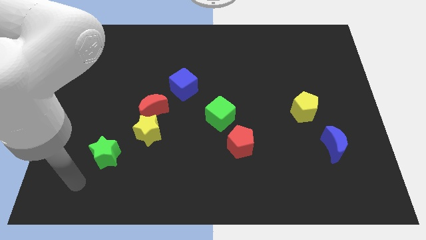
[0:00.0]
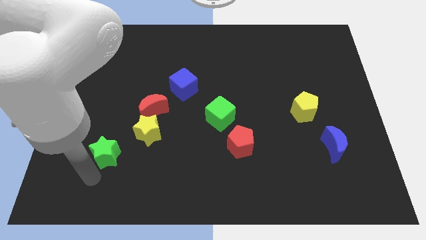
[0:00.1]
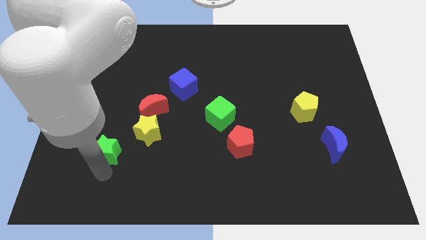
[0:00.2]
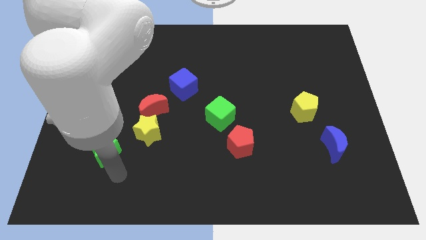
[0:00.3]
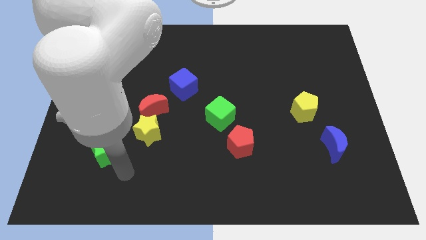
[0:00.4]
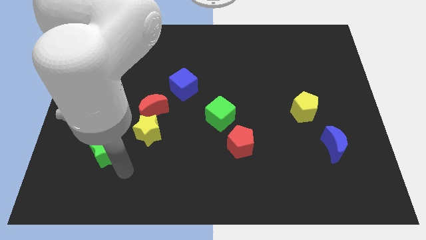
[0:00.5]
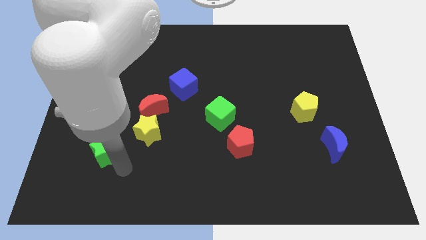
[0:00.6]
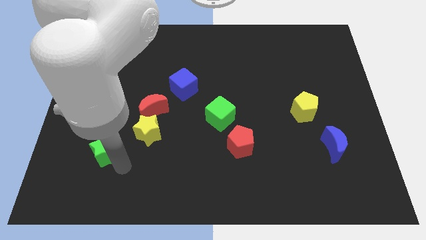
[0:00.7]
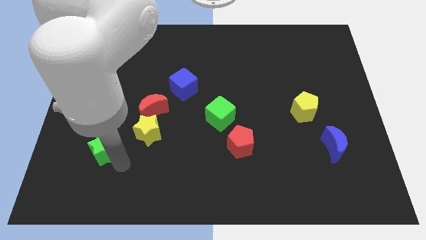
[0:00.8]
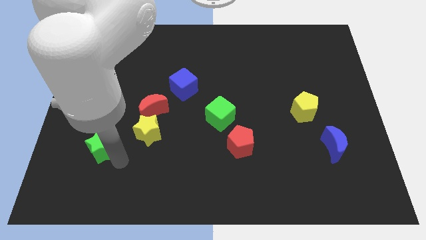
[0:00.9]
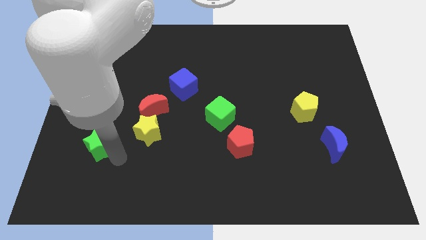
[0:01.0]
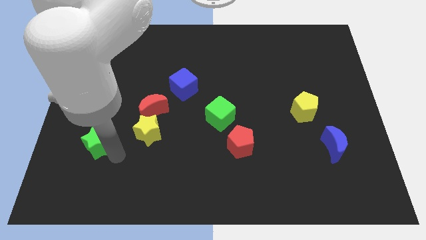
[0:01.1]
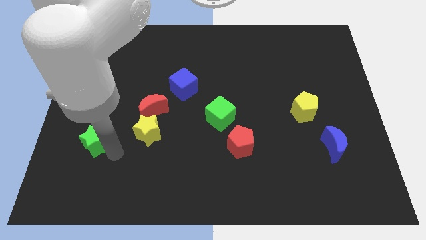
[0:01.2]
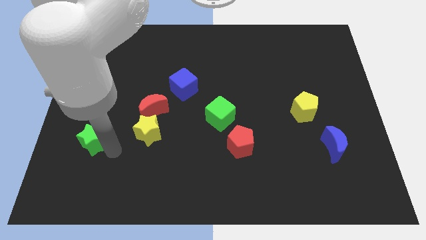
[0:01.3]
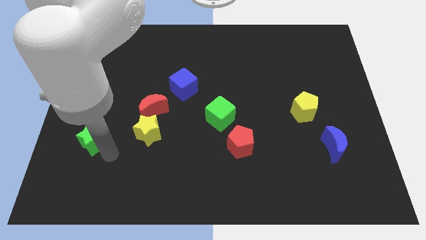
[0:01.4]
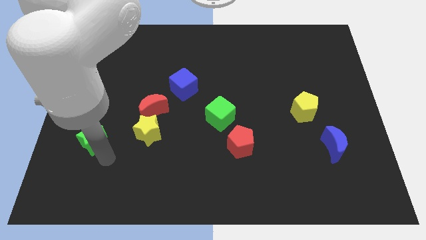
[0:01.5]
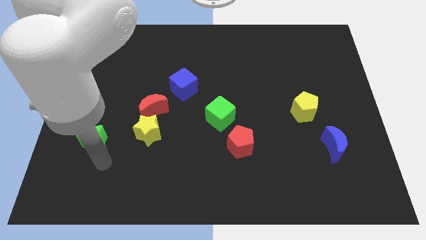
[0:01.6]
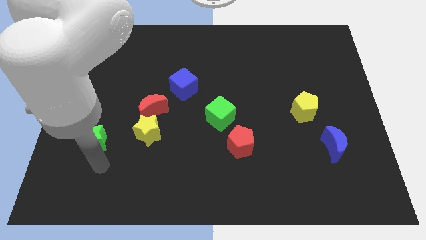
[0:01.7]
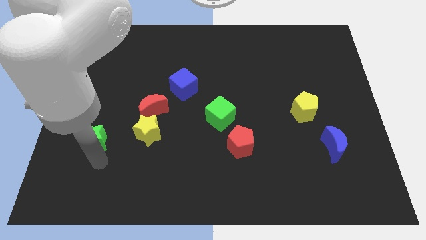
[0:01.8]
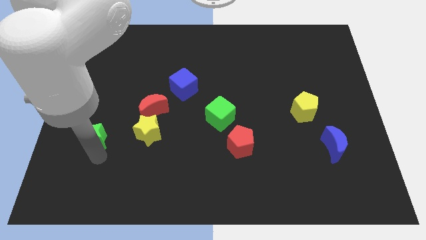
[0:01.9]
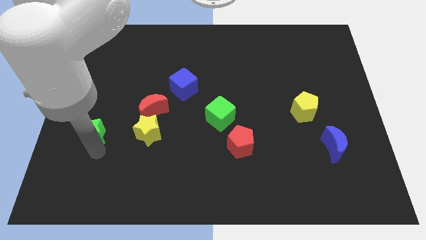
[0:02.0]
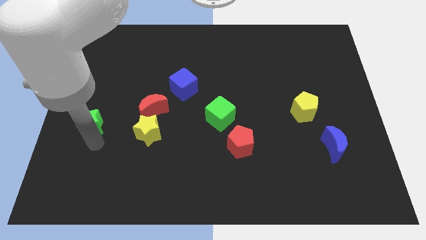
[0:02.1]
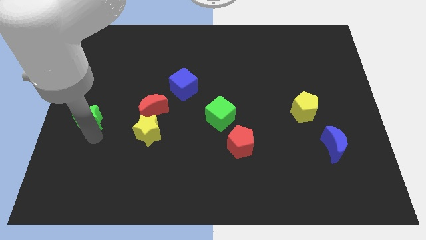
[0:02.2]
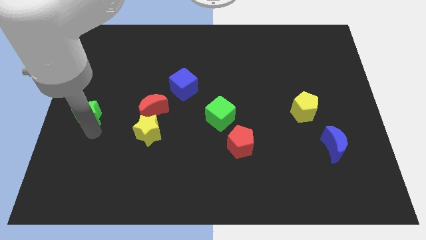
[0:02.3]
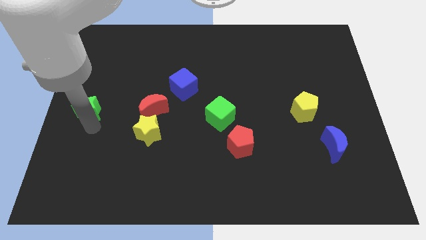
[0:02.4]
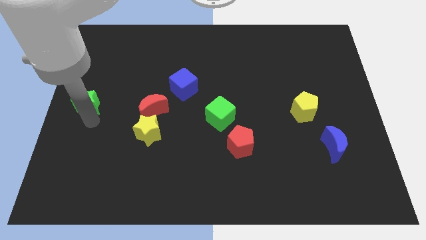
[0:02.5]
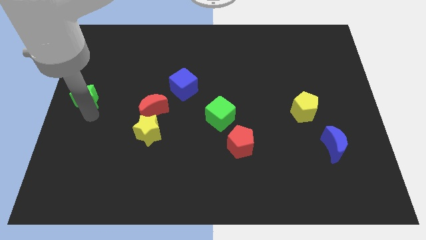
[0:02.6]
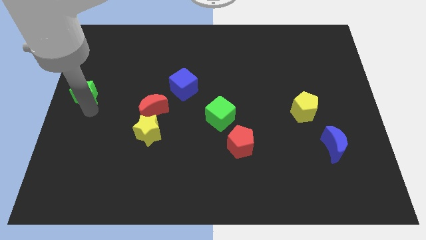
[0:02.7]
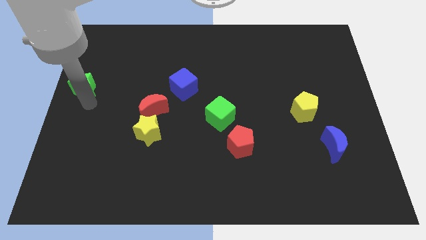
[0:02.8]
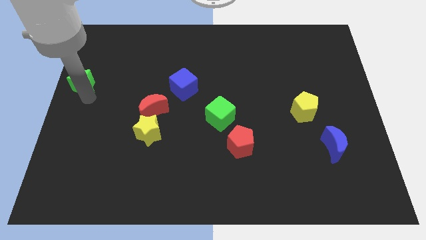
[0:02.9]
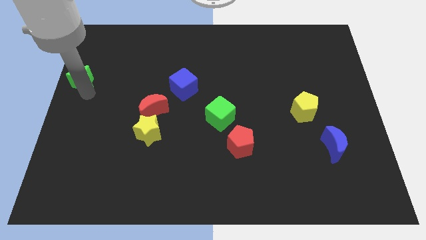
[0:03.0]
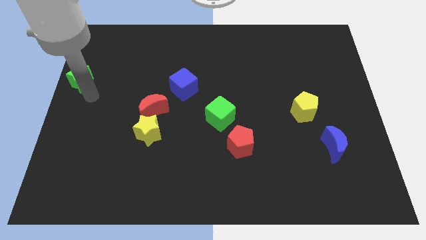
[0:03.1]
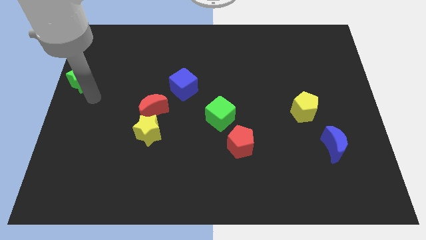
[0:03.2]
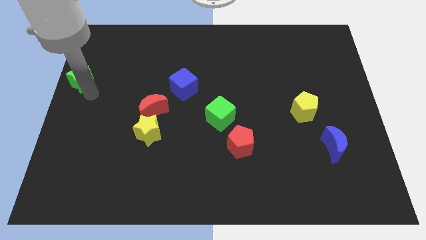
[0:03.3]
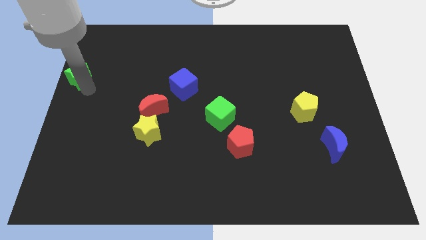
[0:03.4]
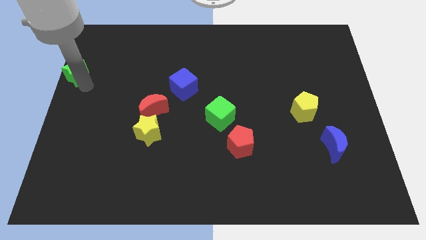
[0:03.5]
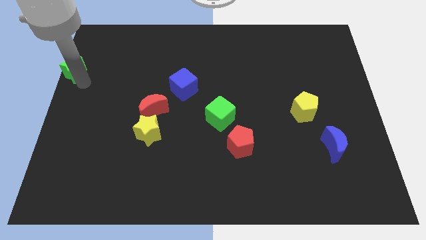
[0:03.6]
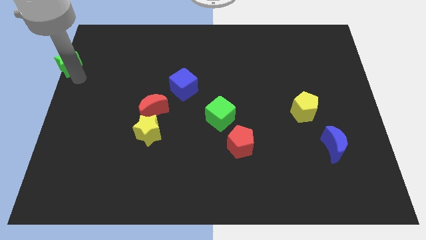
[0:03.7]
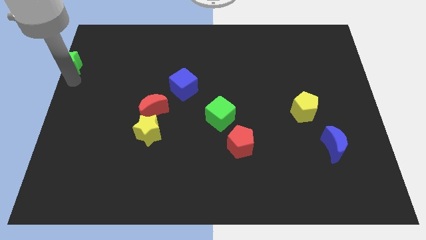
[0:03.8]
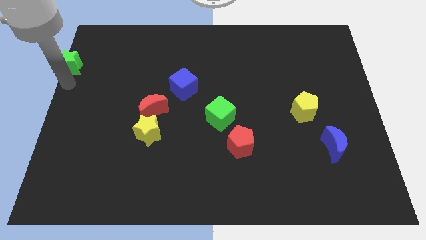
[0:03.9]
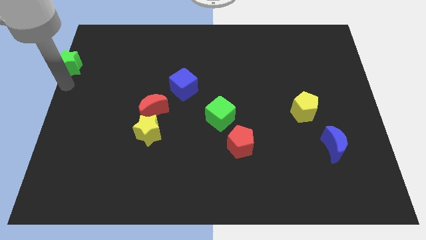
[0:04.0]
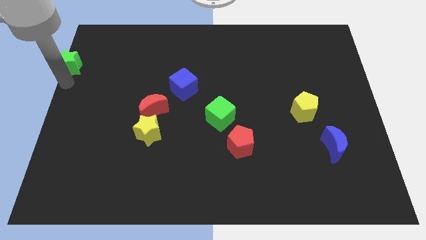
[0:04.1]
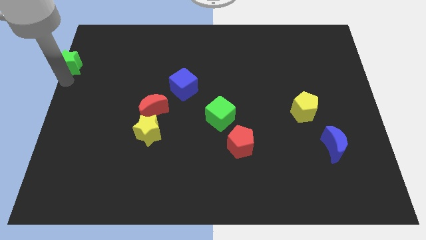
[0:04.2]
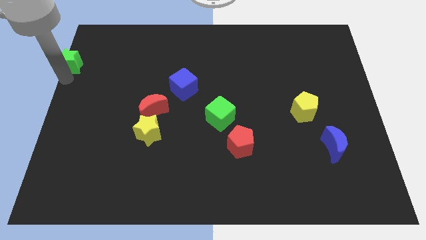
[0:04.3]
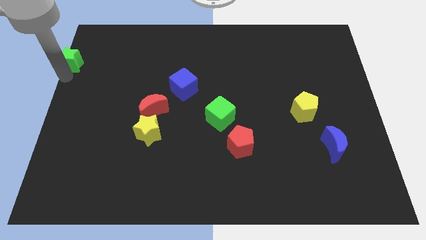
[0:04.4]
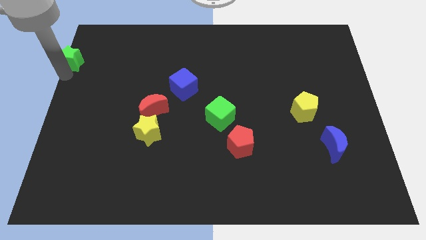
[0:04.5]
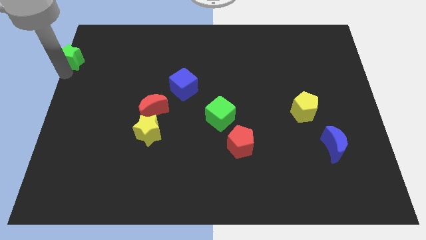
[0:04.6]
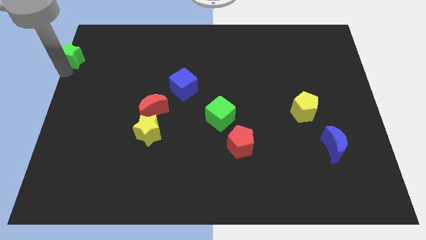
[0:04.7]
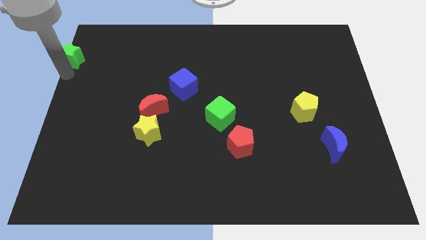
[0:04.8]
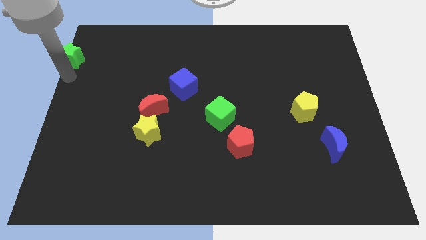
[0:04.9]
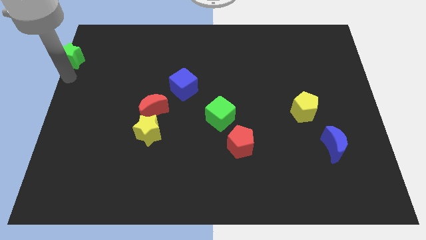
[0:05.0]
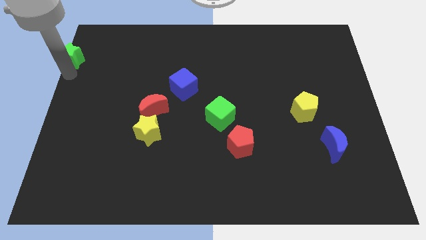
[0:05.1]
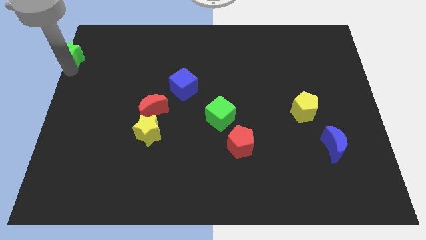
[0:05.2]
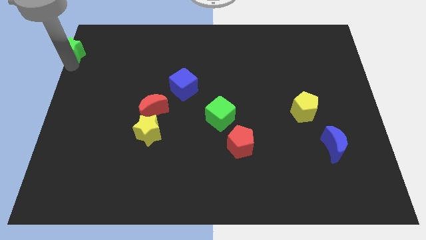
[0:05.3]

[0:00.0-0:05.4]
push the green star to the top left corner

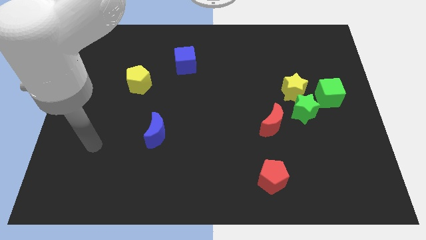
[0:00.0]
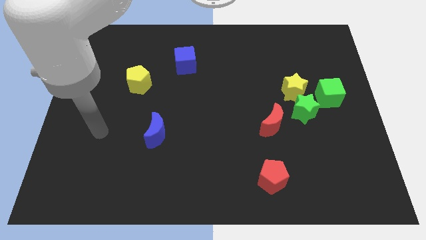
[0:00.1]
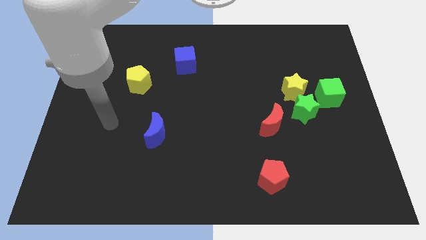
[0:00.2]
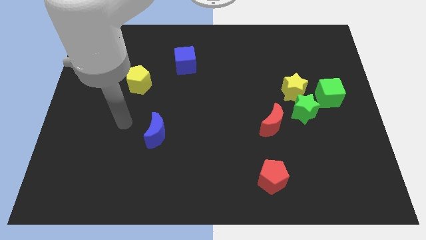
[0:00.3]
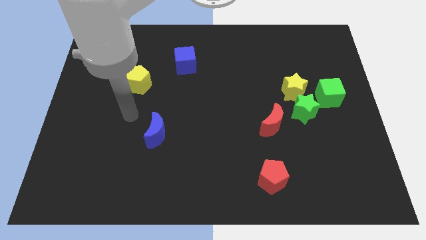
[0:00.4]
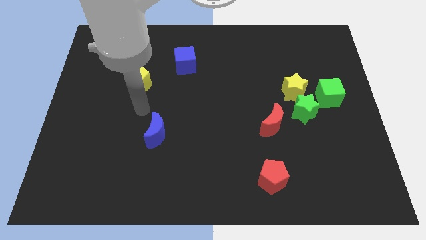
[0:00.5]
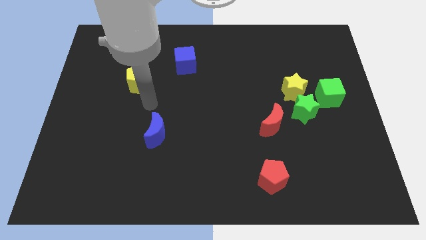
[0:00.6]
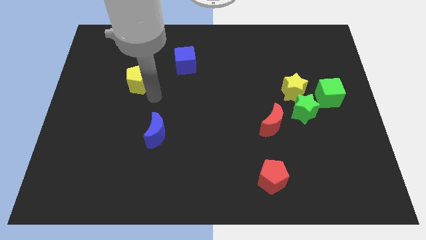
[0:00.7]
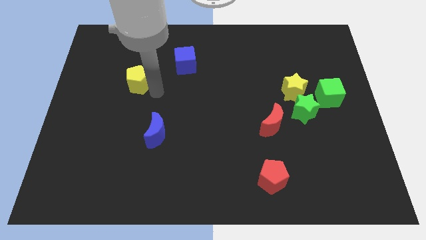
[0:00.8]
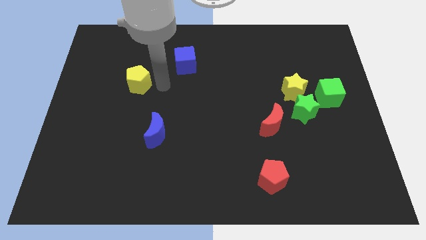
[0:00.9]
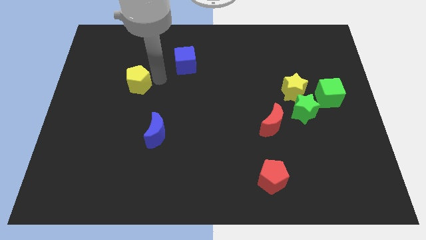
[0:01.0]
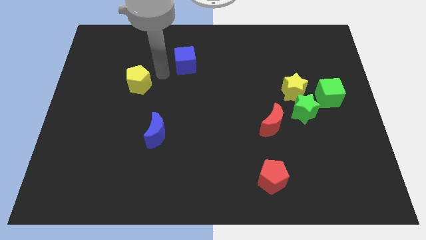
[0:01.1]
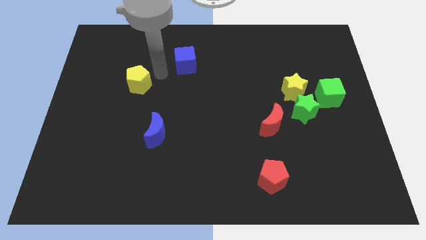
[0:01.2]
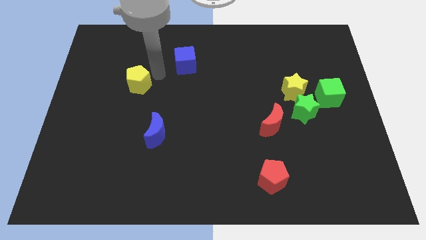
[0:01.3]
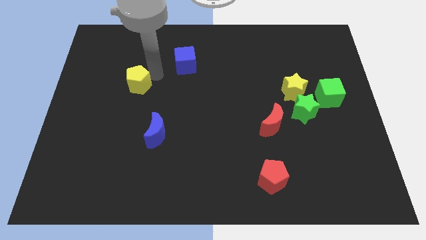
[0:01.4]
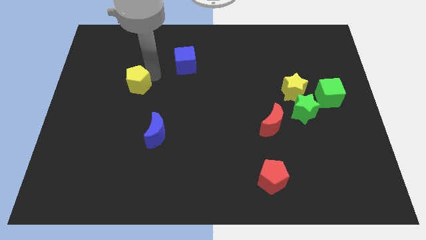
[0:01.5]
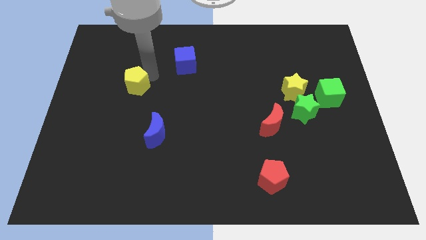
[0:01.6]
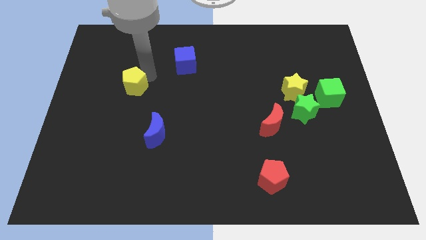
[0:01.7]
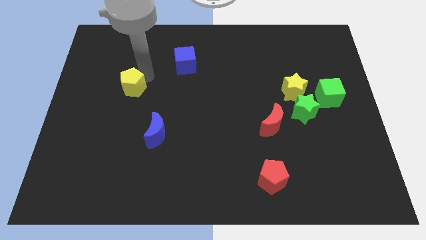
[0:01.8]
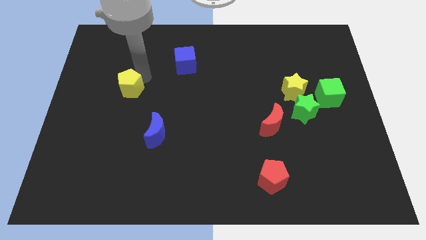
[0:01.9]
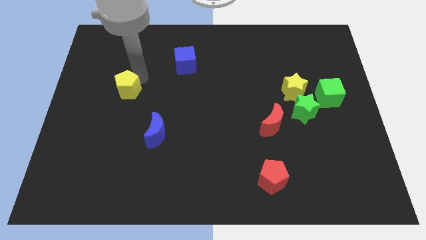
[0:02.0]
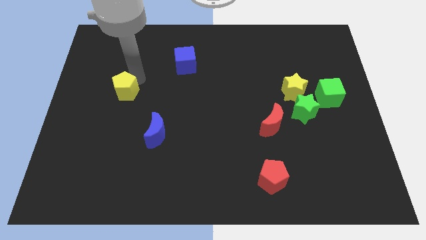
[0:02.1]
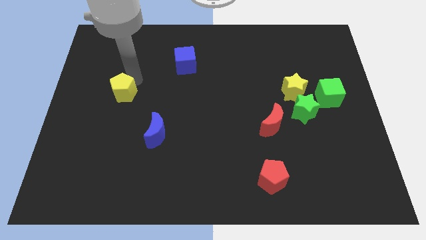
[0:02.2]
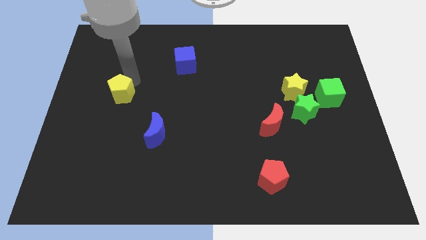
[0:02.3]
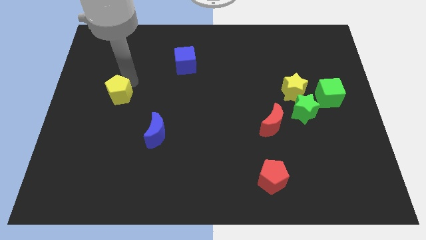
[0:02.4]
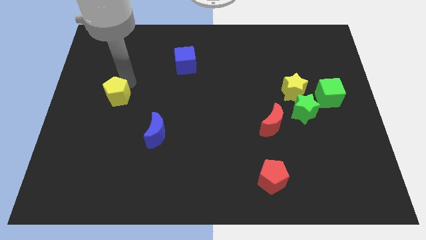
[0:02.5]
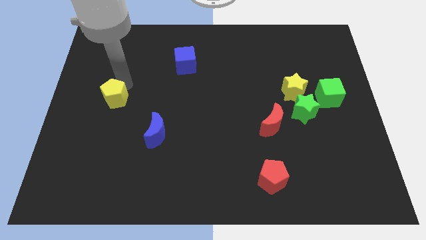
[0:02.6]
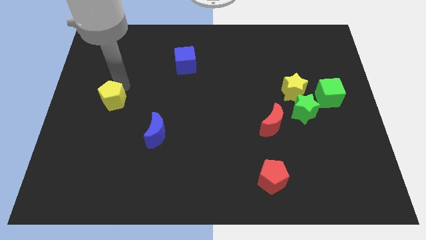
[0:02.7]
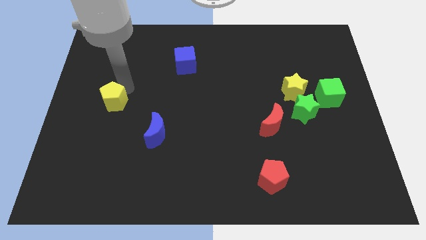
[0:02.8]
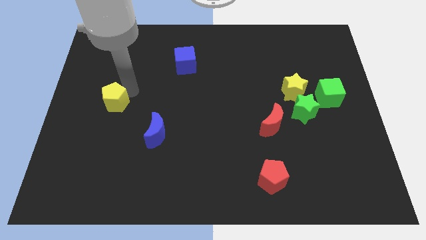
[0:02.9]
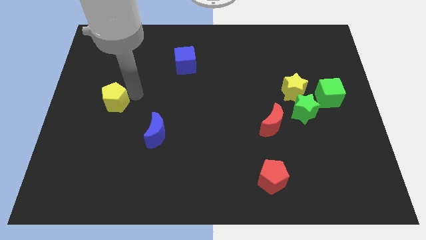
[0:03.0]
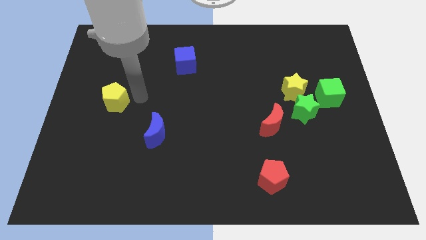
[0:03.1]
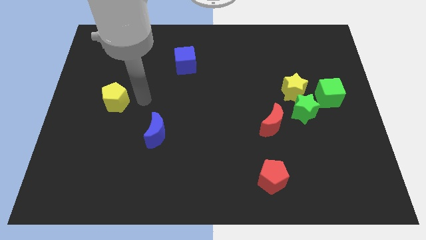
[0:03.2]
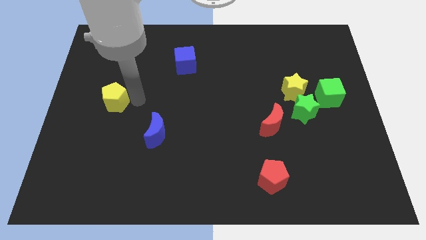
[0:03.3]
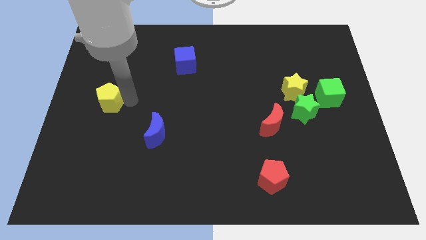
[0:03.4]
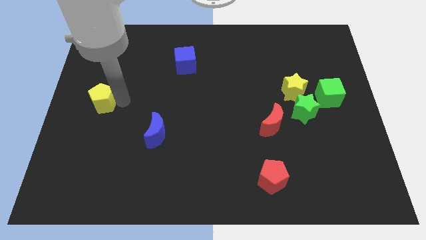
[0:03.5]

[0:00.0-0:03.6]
put the yellow pentagon to the center left
